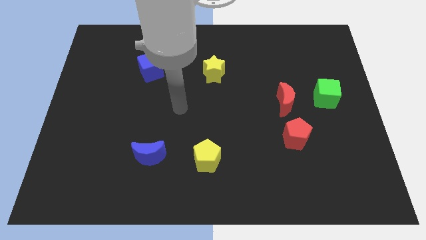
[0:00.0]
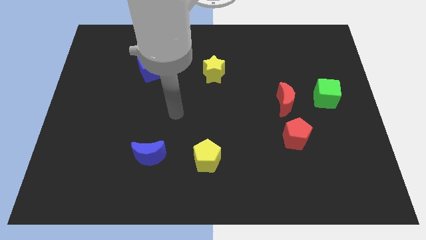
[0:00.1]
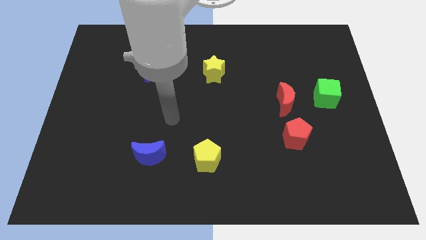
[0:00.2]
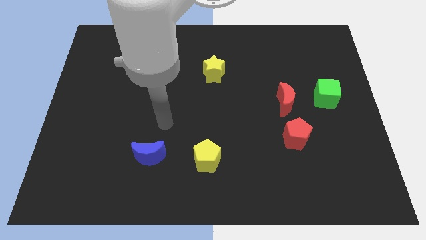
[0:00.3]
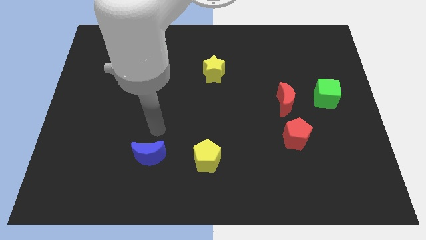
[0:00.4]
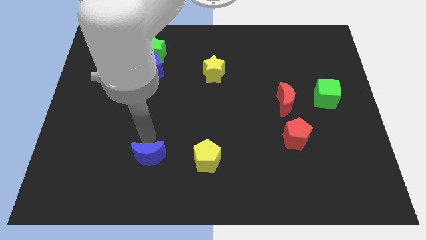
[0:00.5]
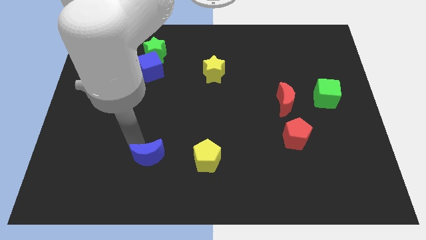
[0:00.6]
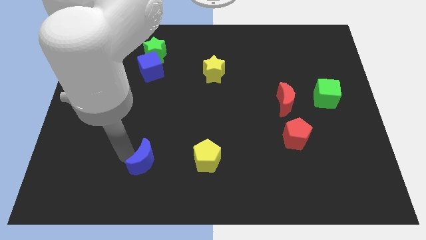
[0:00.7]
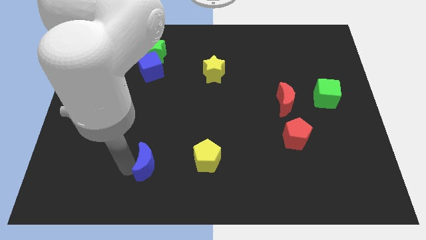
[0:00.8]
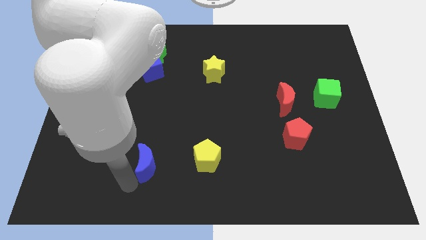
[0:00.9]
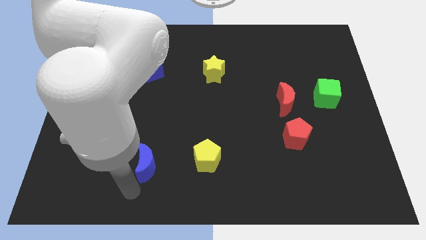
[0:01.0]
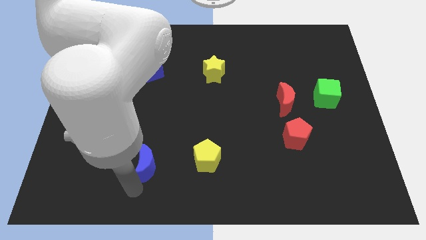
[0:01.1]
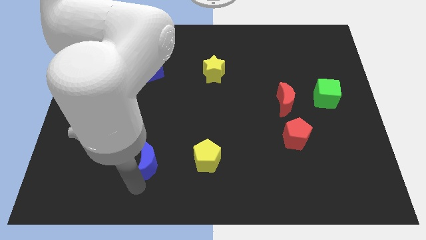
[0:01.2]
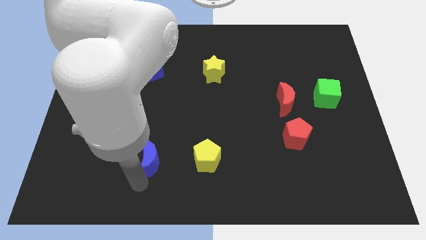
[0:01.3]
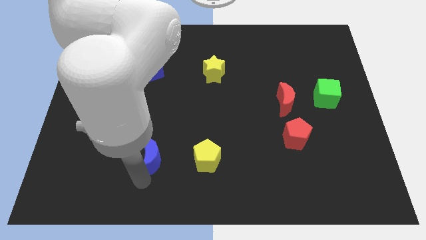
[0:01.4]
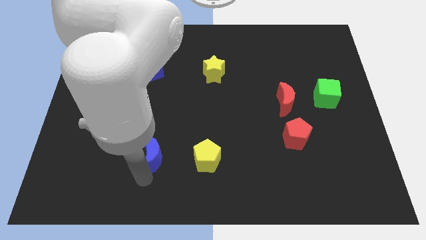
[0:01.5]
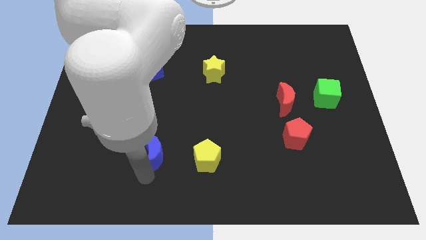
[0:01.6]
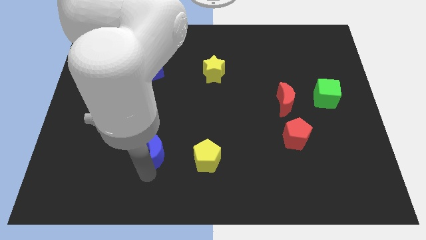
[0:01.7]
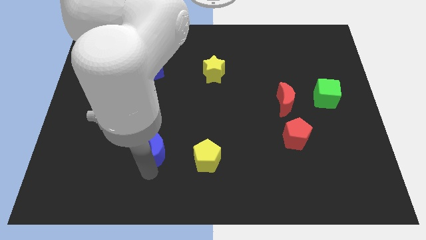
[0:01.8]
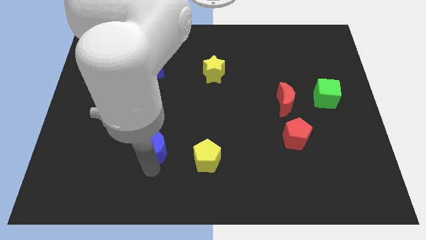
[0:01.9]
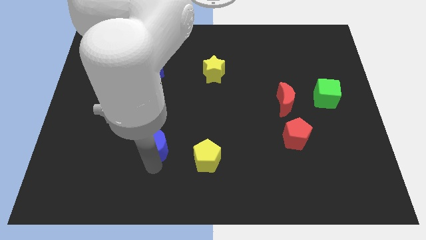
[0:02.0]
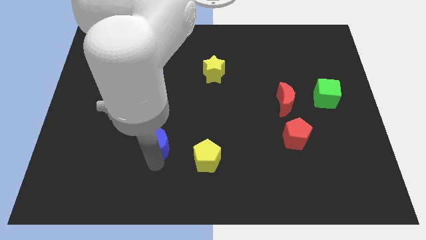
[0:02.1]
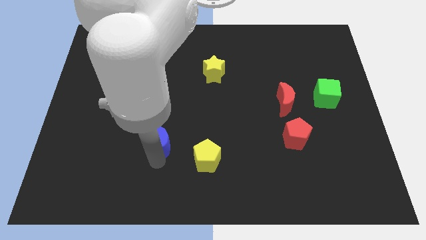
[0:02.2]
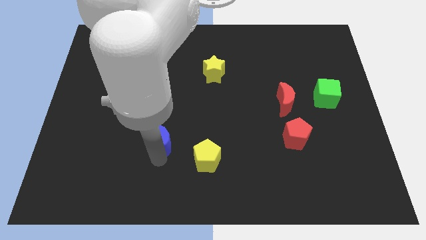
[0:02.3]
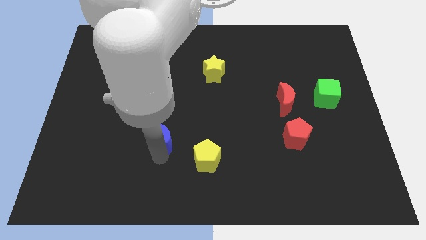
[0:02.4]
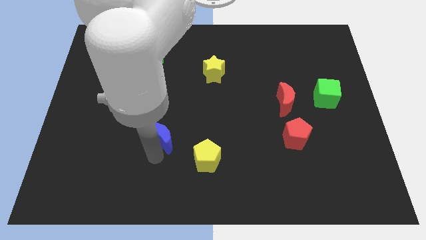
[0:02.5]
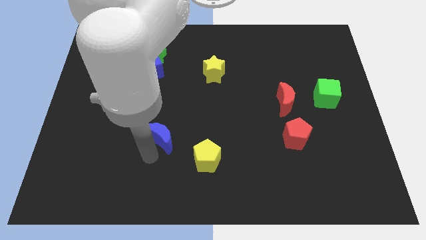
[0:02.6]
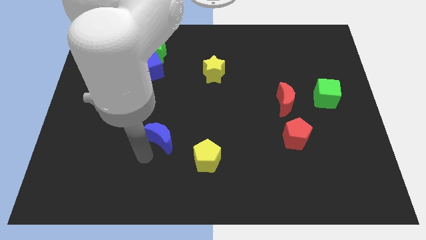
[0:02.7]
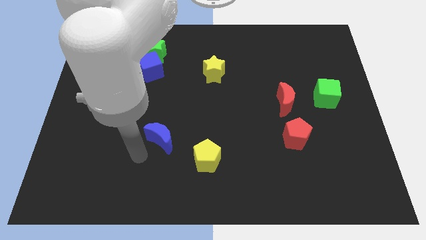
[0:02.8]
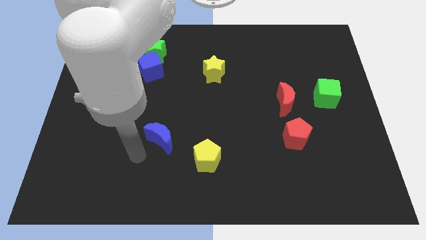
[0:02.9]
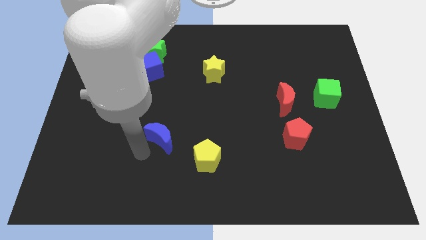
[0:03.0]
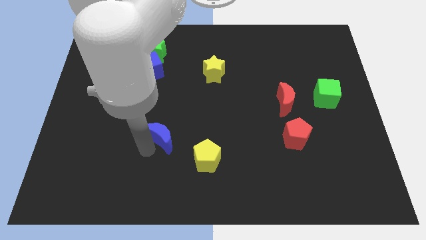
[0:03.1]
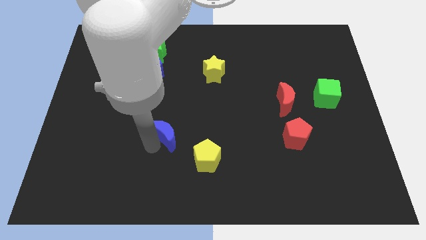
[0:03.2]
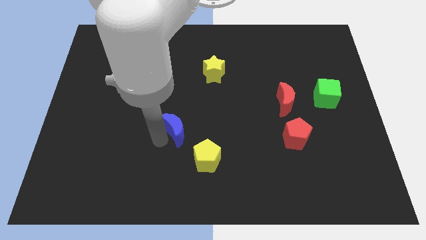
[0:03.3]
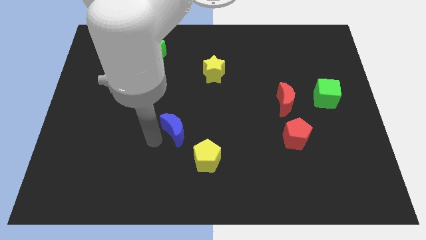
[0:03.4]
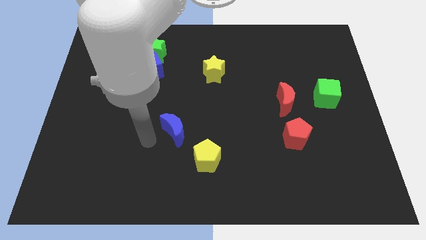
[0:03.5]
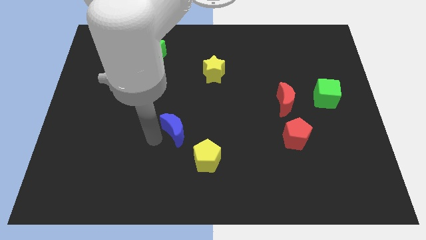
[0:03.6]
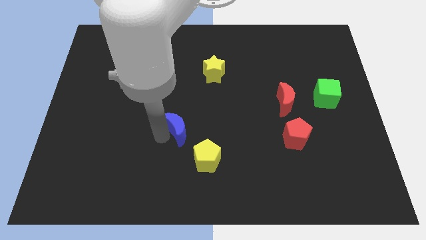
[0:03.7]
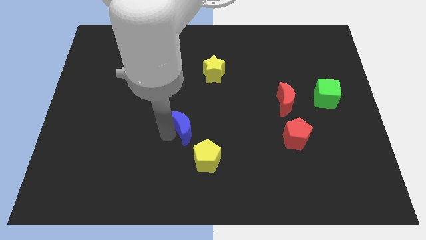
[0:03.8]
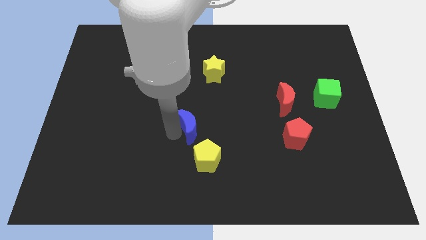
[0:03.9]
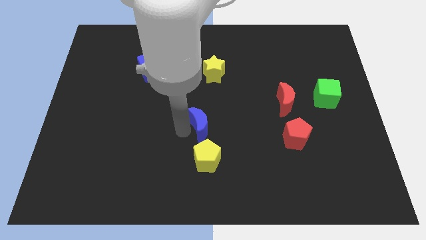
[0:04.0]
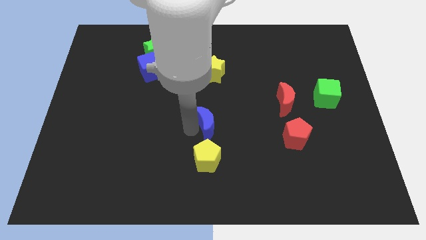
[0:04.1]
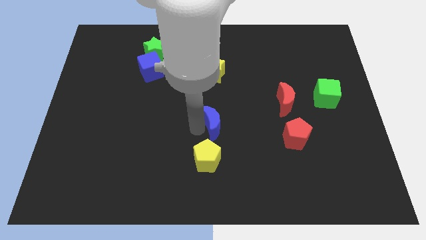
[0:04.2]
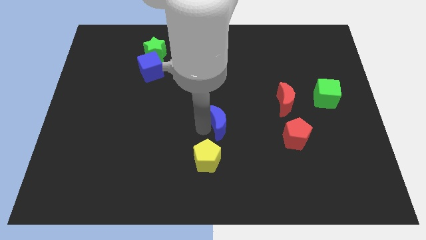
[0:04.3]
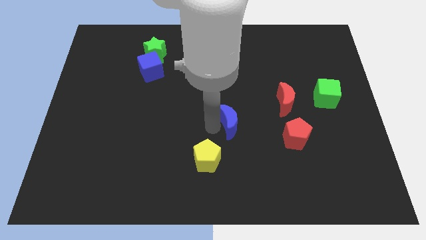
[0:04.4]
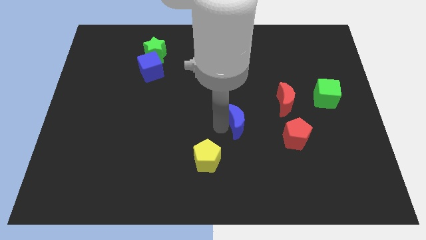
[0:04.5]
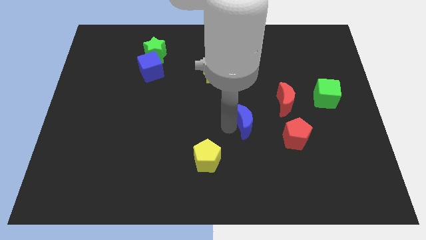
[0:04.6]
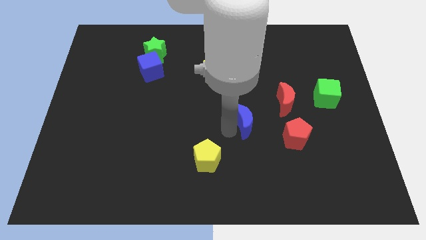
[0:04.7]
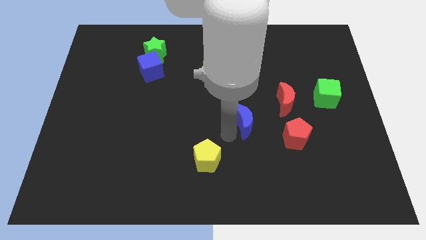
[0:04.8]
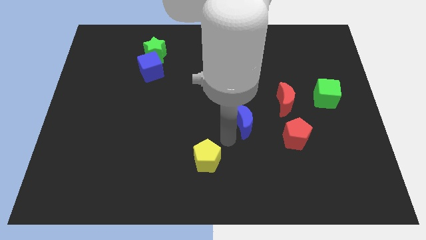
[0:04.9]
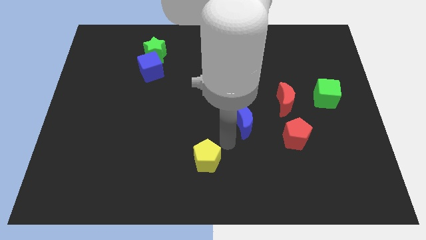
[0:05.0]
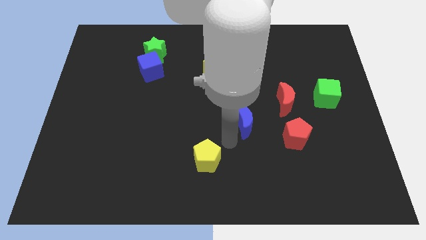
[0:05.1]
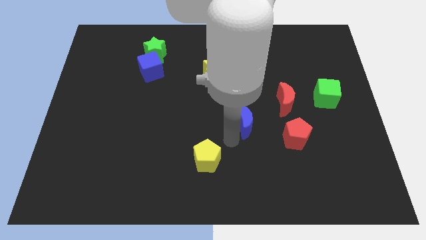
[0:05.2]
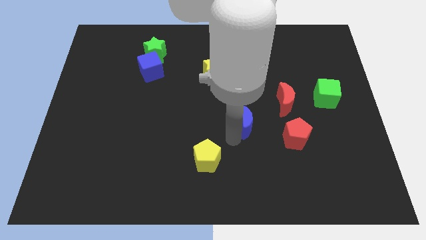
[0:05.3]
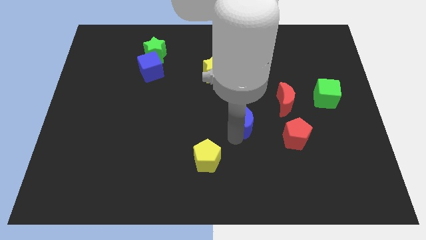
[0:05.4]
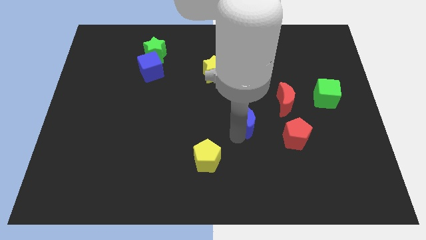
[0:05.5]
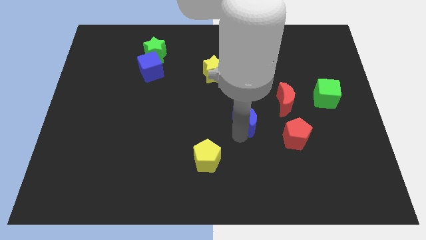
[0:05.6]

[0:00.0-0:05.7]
slide the blue moon to the top left side of the red pentagon
